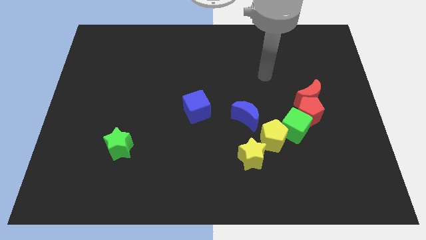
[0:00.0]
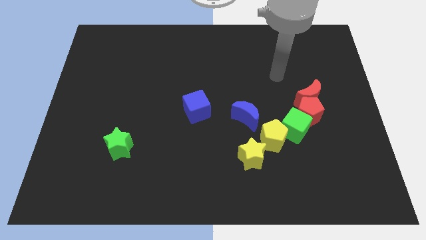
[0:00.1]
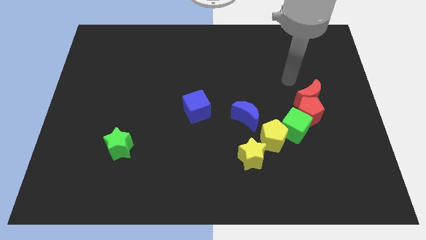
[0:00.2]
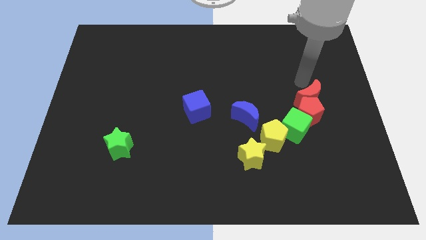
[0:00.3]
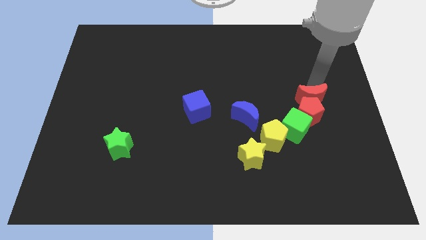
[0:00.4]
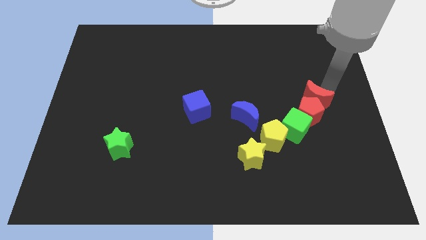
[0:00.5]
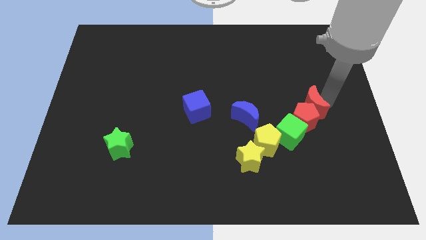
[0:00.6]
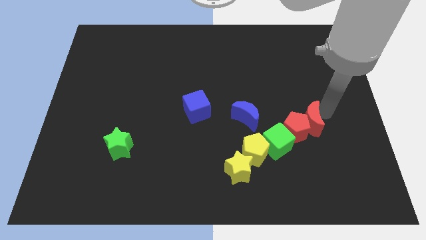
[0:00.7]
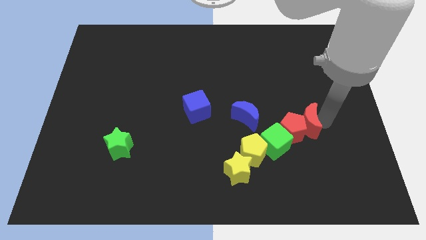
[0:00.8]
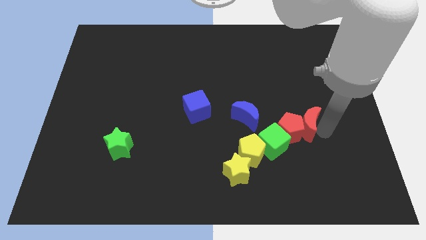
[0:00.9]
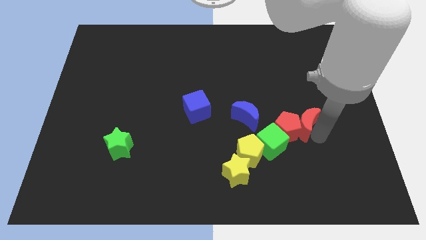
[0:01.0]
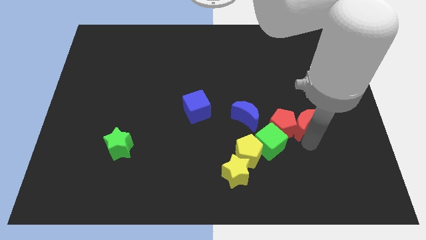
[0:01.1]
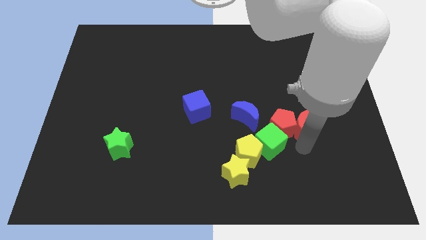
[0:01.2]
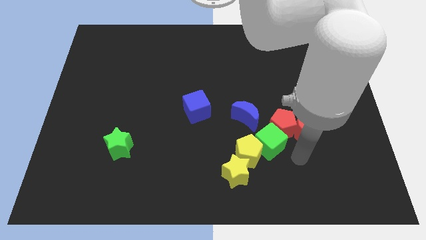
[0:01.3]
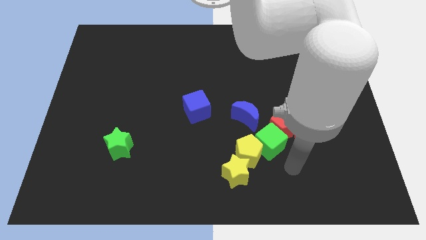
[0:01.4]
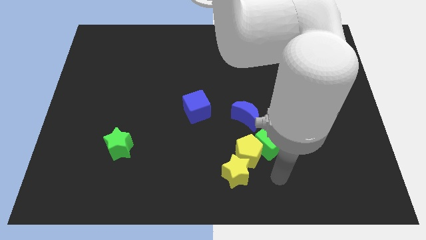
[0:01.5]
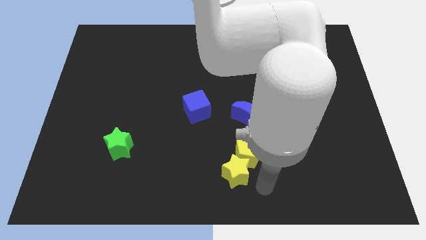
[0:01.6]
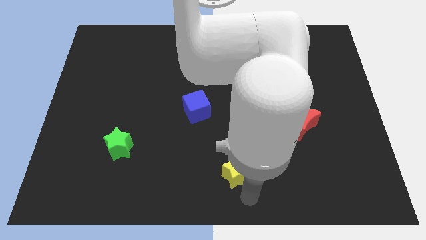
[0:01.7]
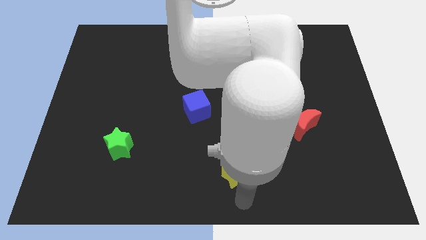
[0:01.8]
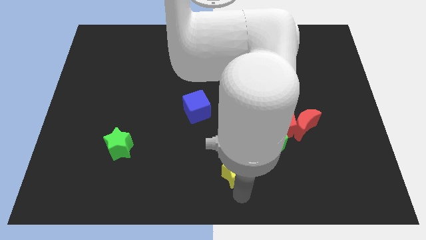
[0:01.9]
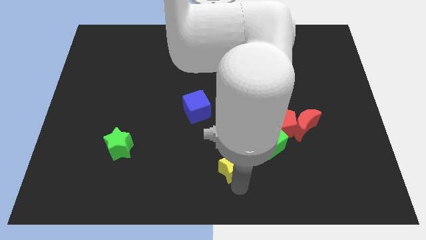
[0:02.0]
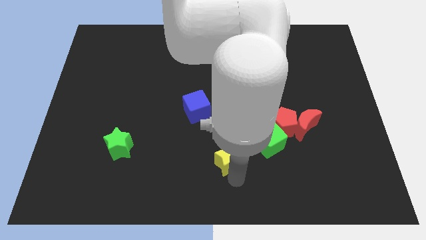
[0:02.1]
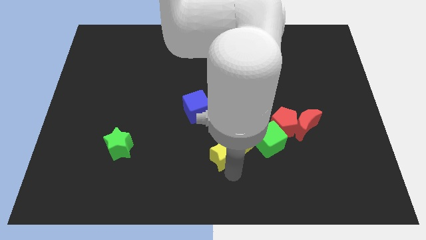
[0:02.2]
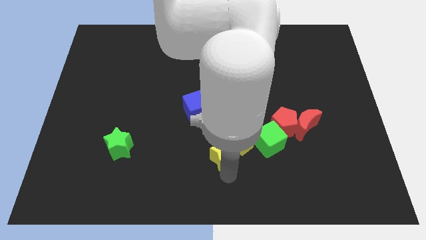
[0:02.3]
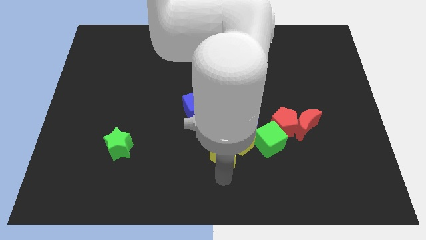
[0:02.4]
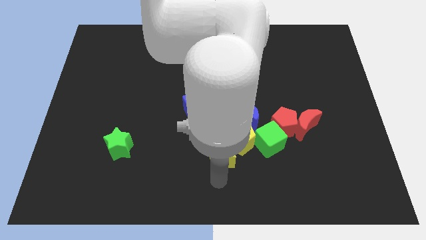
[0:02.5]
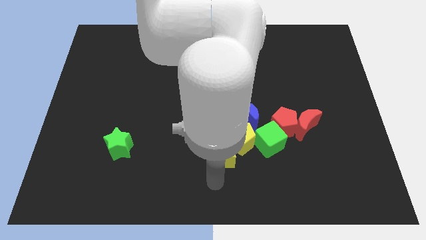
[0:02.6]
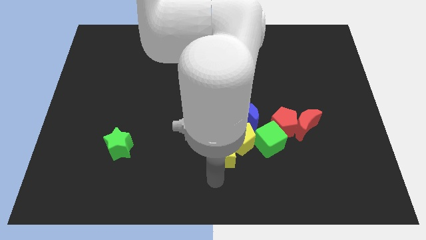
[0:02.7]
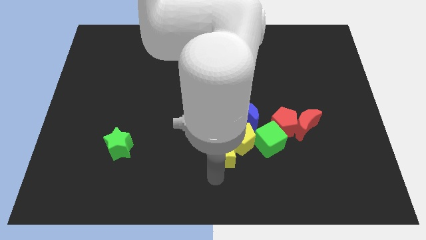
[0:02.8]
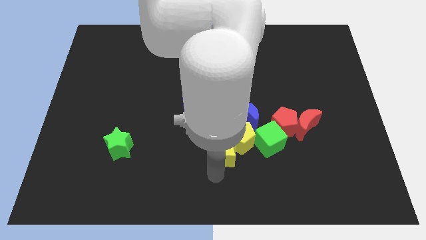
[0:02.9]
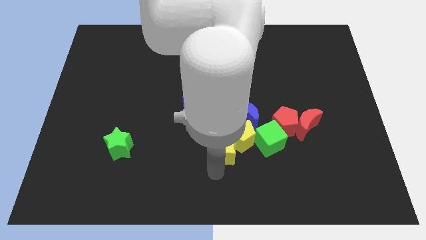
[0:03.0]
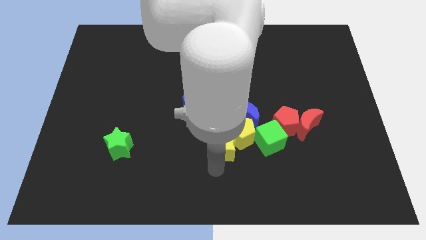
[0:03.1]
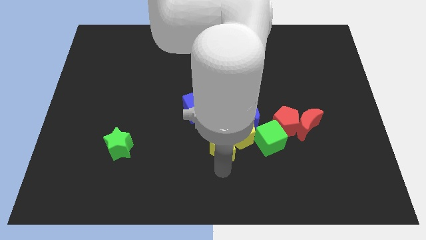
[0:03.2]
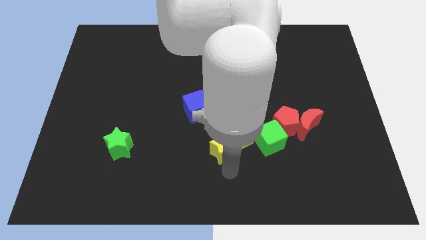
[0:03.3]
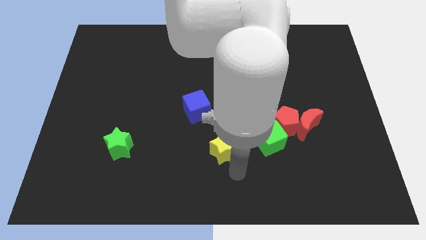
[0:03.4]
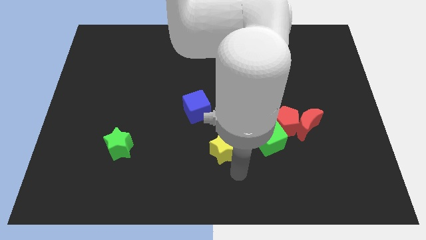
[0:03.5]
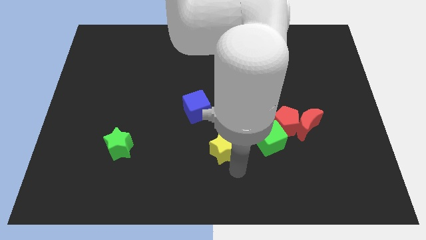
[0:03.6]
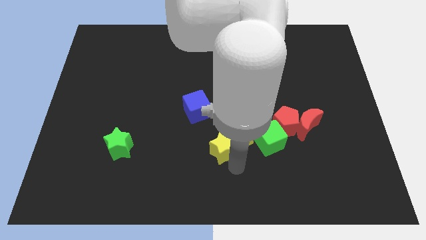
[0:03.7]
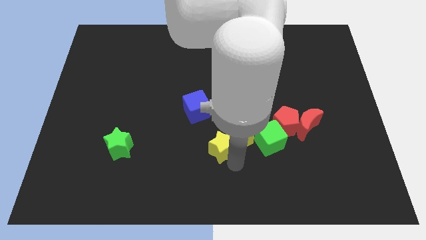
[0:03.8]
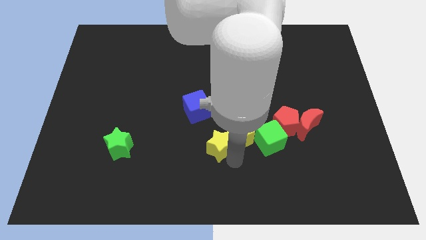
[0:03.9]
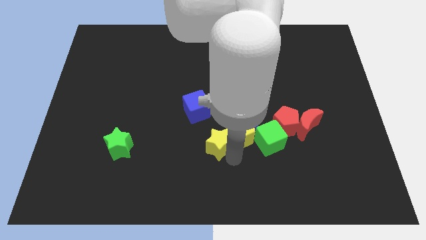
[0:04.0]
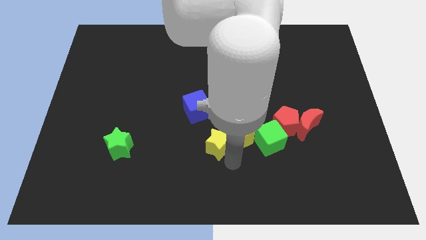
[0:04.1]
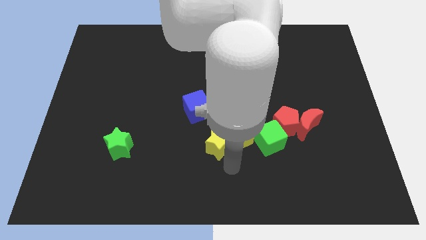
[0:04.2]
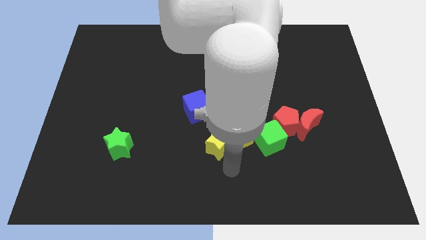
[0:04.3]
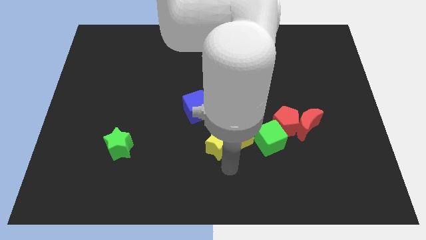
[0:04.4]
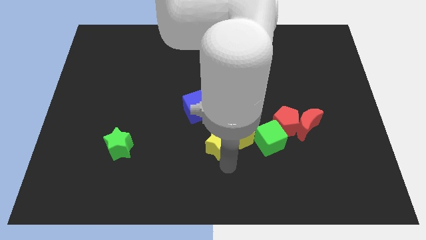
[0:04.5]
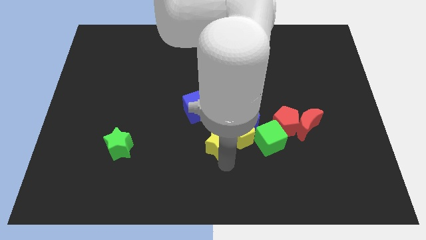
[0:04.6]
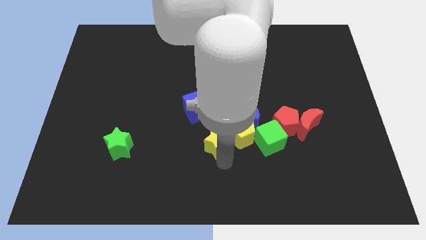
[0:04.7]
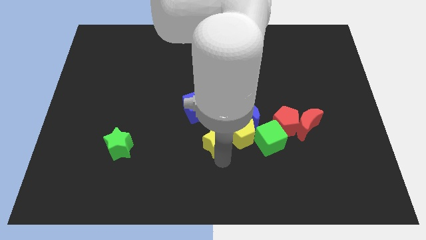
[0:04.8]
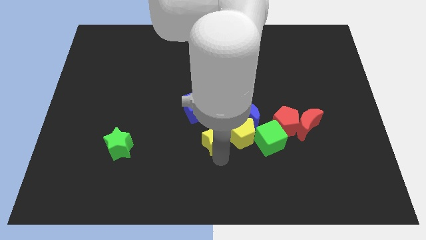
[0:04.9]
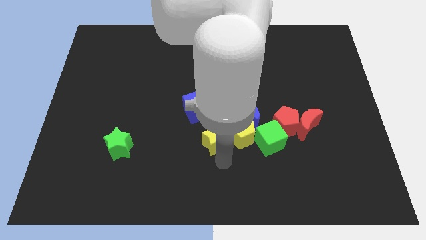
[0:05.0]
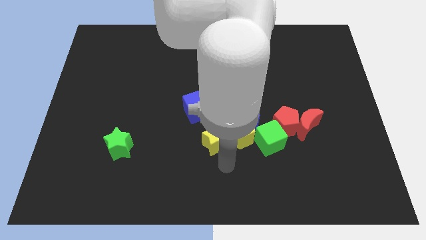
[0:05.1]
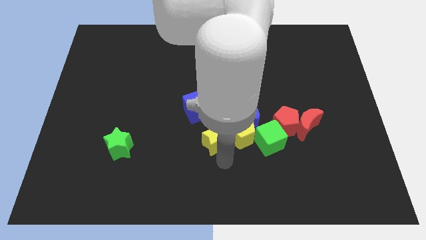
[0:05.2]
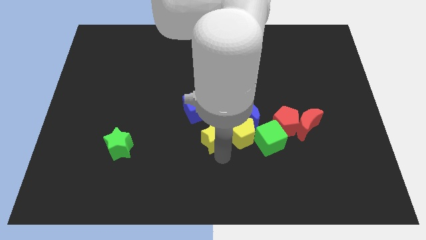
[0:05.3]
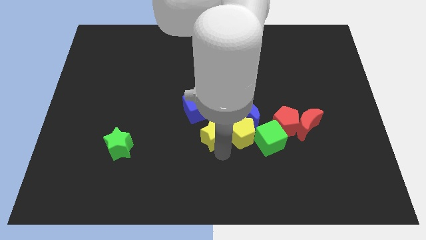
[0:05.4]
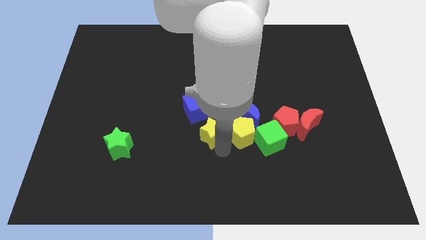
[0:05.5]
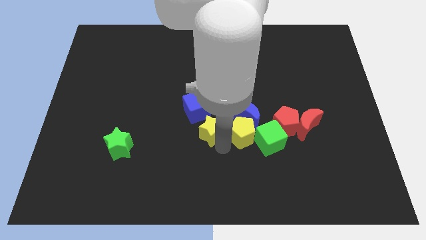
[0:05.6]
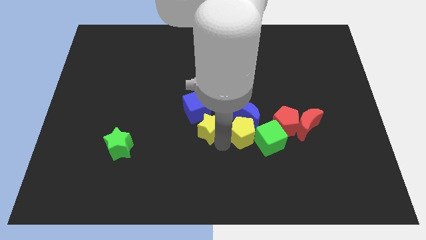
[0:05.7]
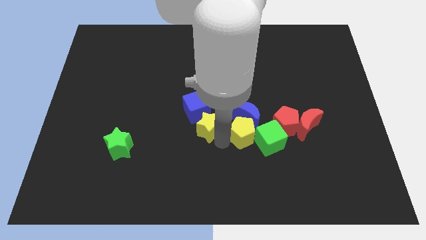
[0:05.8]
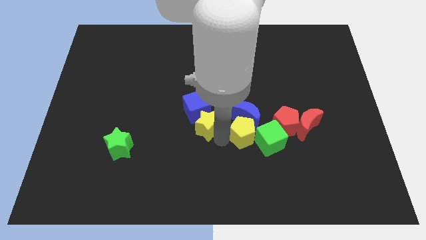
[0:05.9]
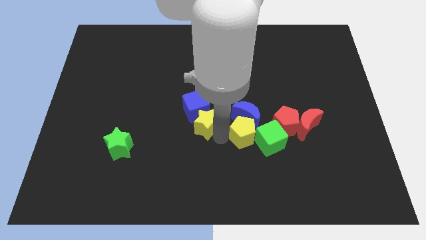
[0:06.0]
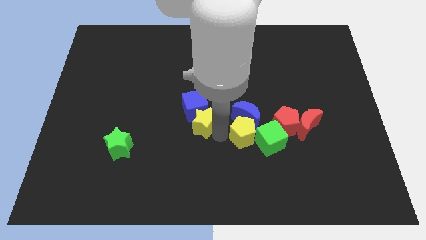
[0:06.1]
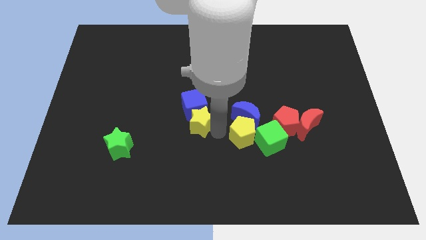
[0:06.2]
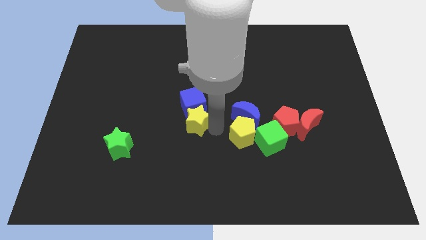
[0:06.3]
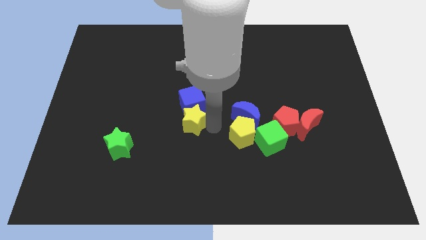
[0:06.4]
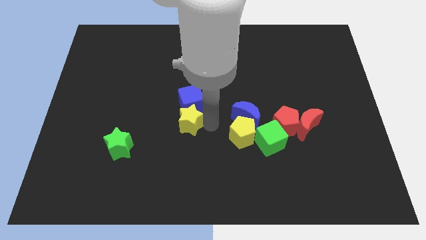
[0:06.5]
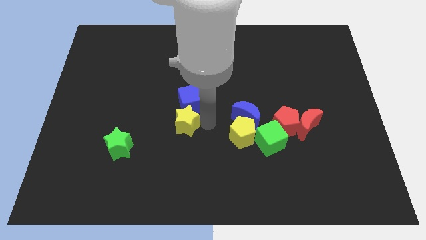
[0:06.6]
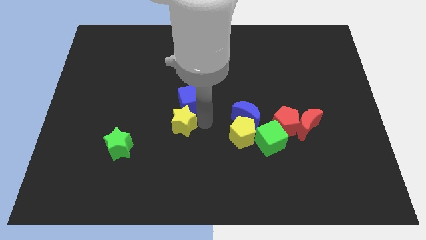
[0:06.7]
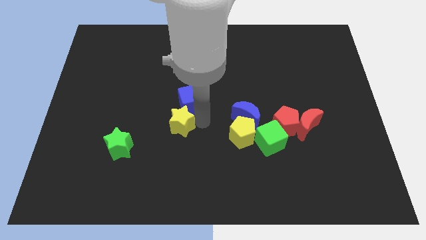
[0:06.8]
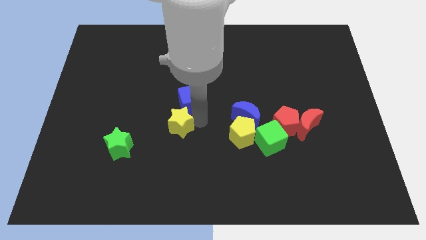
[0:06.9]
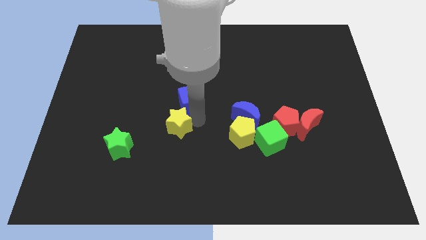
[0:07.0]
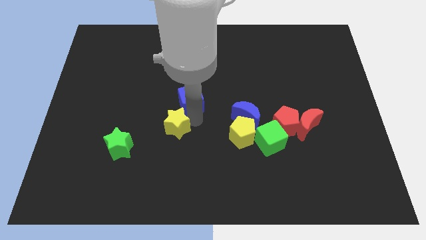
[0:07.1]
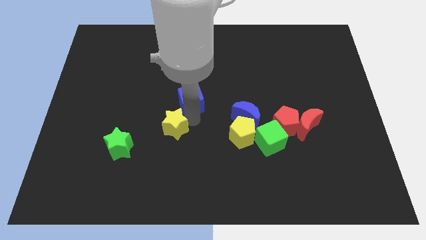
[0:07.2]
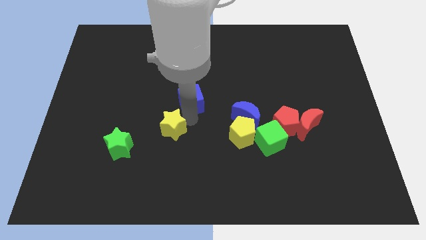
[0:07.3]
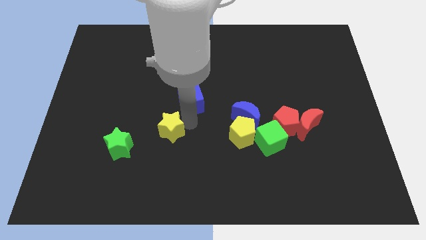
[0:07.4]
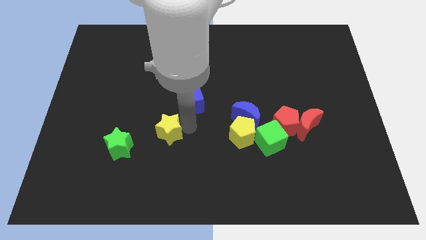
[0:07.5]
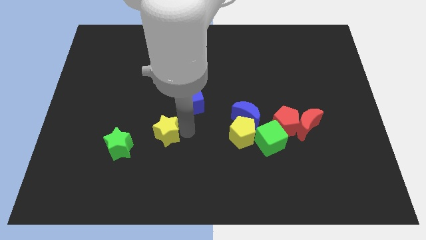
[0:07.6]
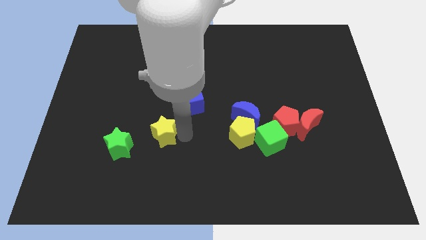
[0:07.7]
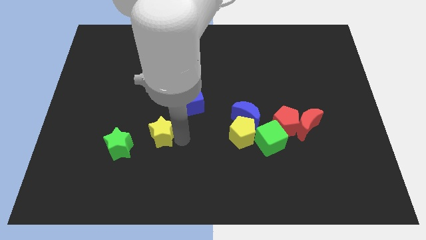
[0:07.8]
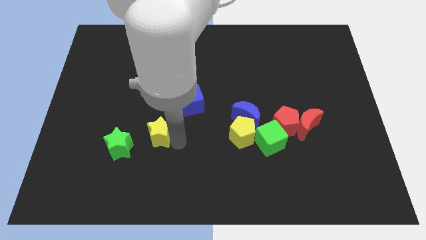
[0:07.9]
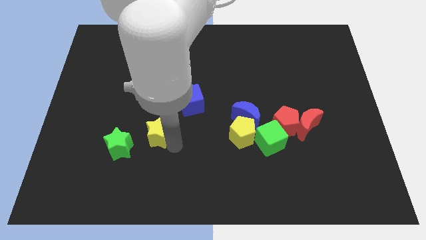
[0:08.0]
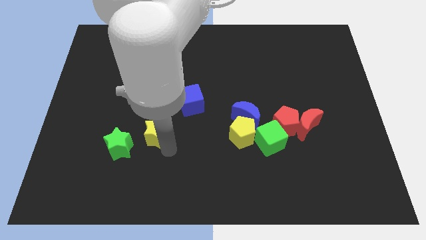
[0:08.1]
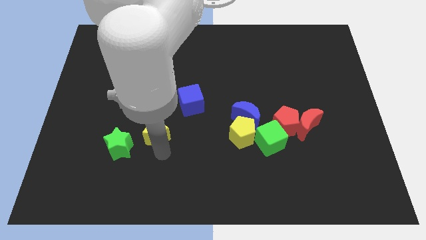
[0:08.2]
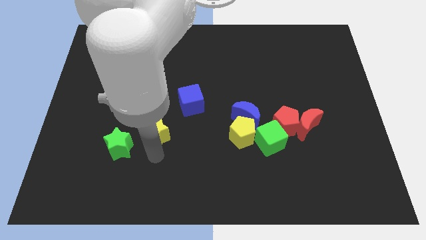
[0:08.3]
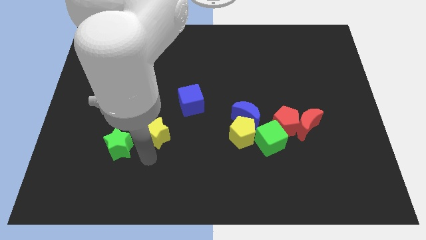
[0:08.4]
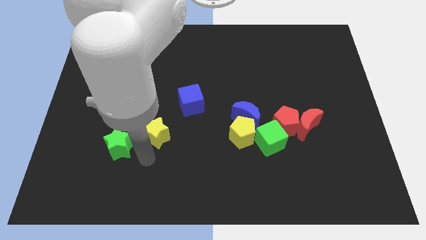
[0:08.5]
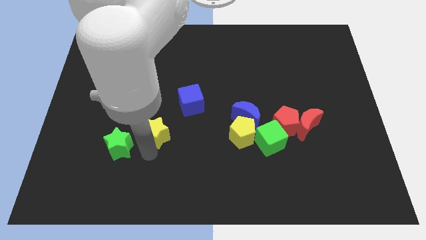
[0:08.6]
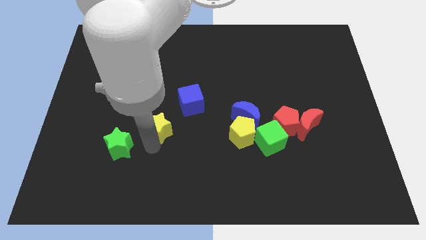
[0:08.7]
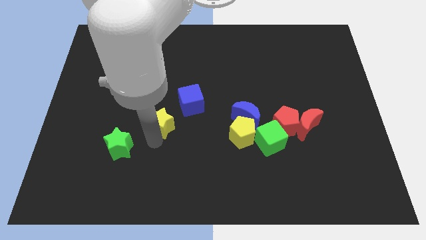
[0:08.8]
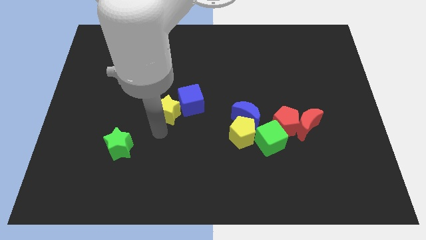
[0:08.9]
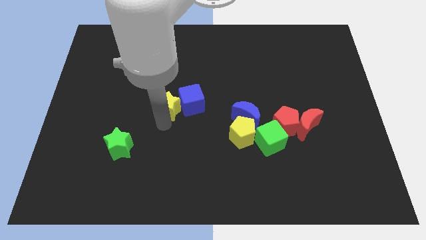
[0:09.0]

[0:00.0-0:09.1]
move the yellow star diagonally up and to the left of the blue cube
